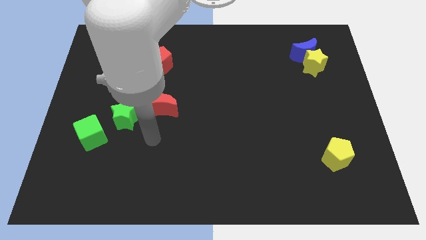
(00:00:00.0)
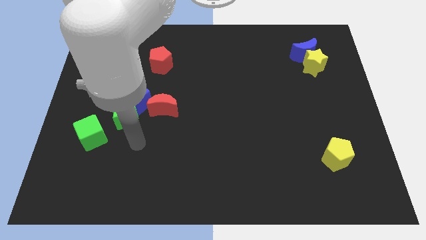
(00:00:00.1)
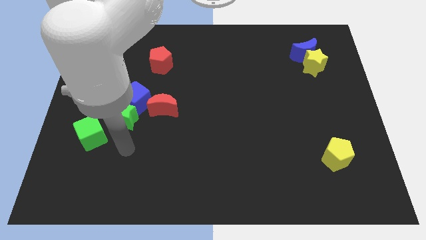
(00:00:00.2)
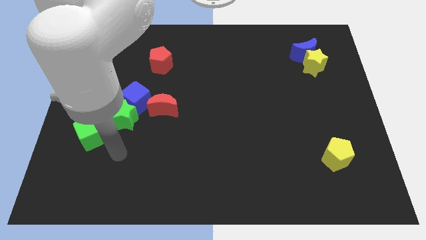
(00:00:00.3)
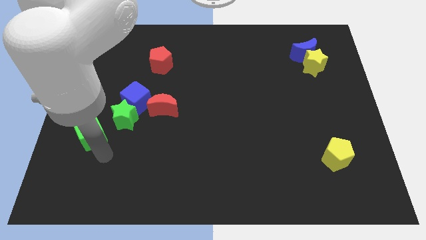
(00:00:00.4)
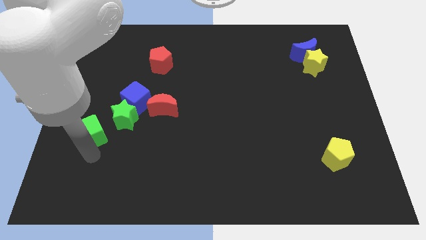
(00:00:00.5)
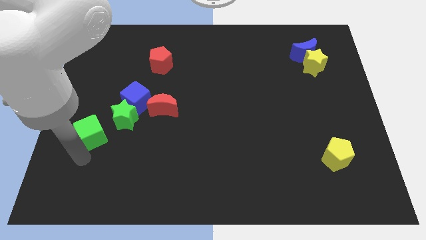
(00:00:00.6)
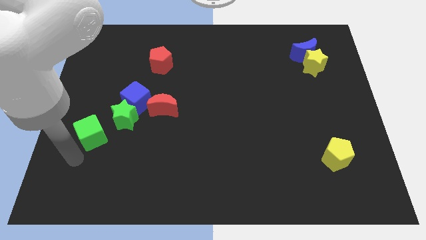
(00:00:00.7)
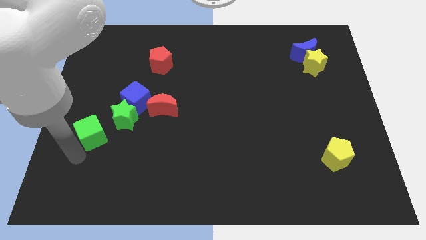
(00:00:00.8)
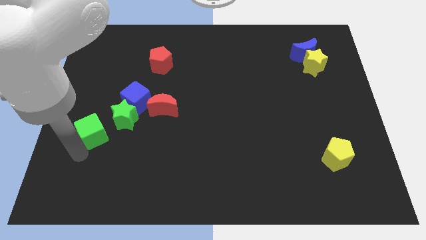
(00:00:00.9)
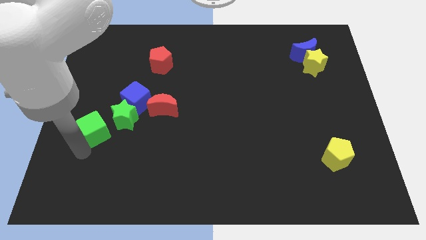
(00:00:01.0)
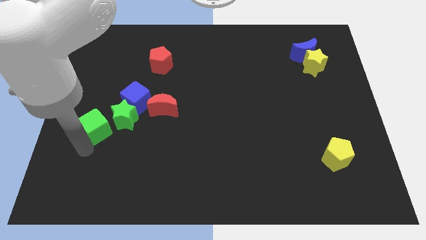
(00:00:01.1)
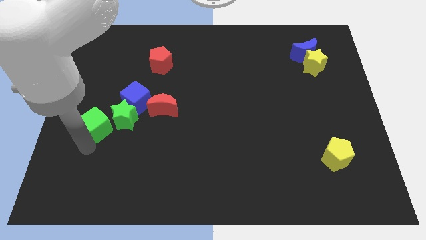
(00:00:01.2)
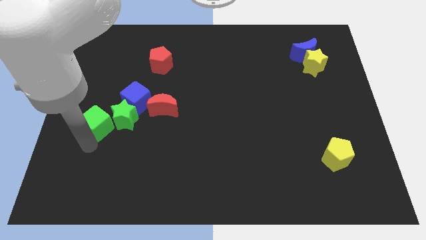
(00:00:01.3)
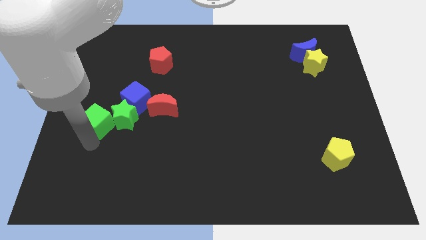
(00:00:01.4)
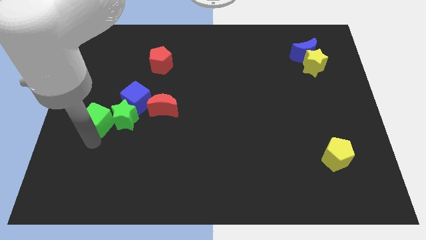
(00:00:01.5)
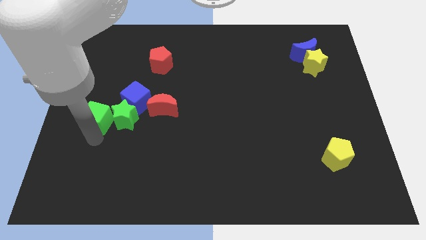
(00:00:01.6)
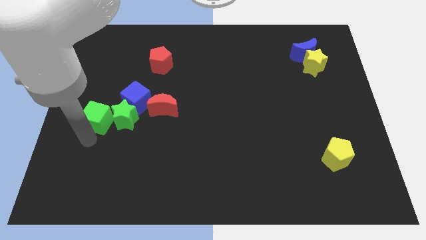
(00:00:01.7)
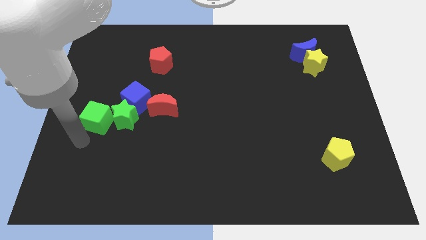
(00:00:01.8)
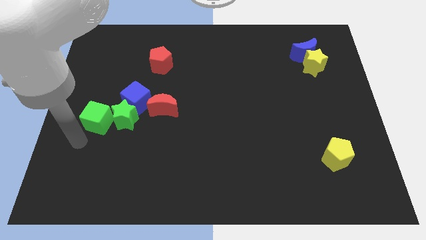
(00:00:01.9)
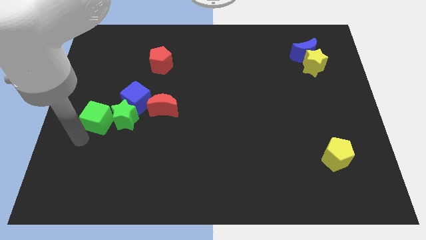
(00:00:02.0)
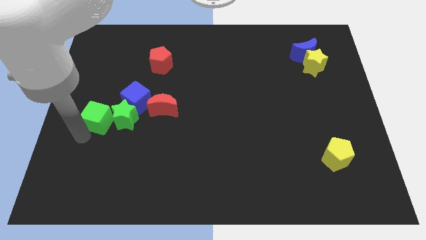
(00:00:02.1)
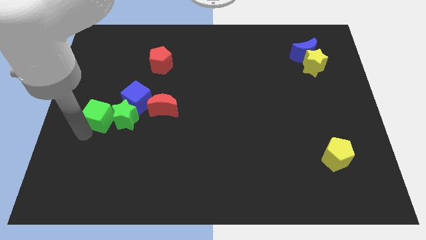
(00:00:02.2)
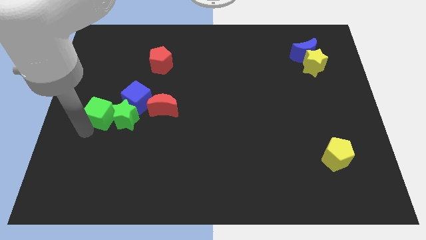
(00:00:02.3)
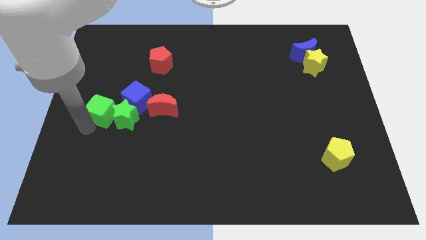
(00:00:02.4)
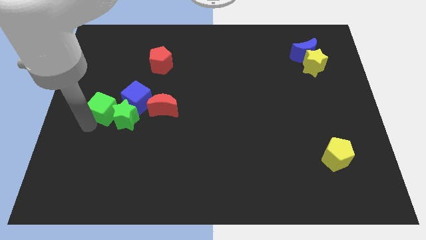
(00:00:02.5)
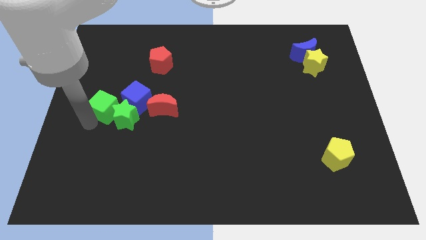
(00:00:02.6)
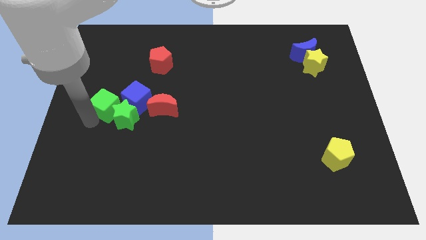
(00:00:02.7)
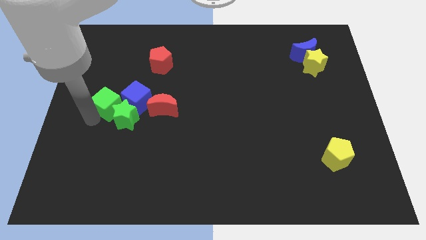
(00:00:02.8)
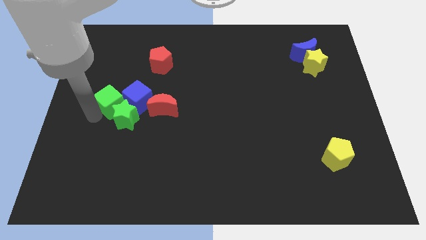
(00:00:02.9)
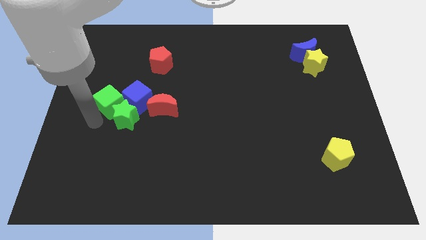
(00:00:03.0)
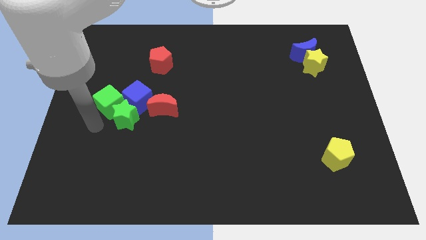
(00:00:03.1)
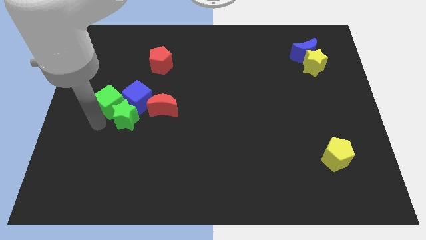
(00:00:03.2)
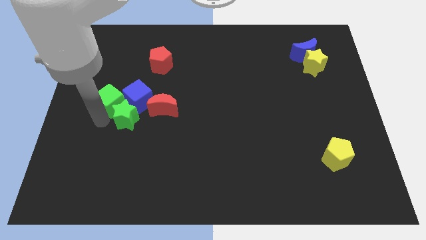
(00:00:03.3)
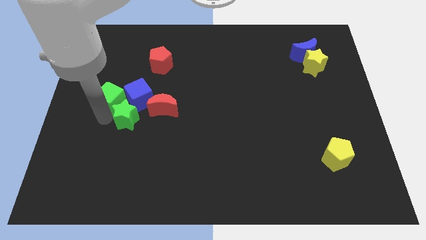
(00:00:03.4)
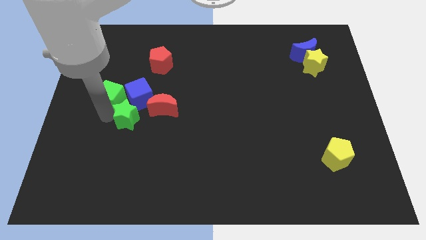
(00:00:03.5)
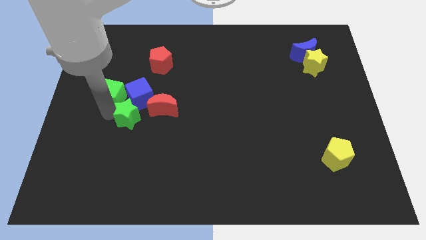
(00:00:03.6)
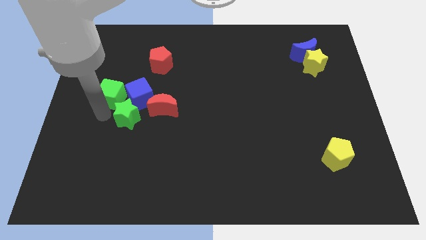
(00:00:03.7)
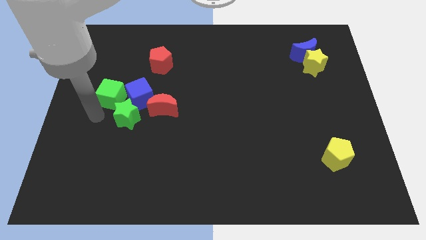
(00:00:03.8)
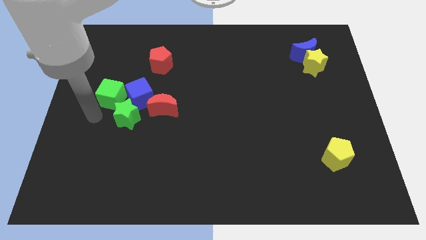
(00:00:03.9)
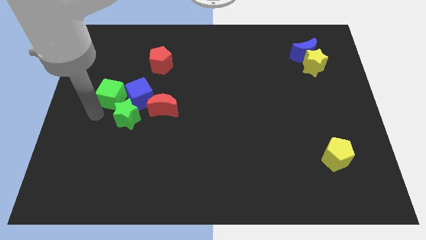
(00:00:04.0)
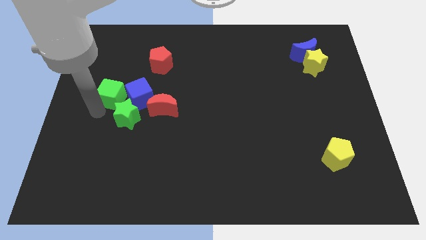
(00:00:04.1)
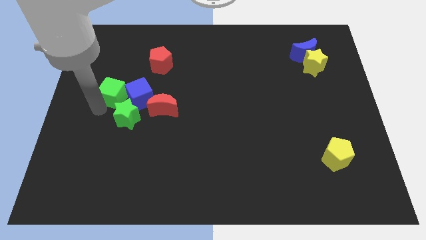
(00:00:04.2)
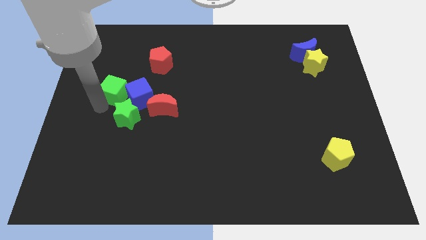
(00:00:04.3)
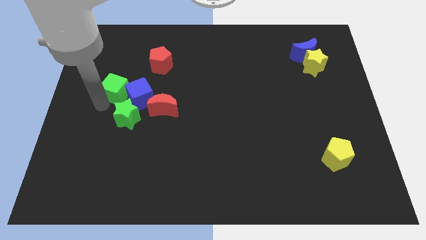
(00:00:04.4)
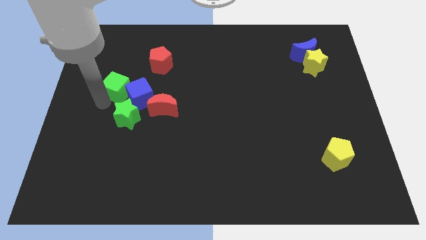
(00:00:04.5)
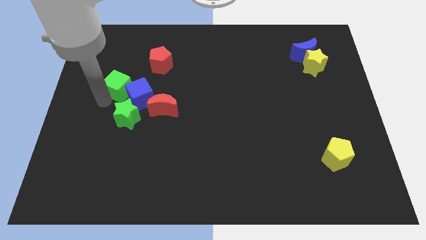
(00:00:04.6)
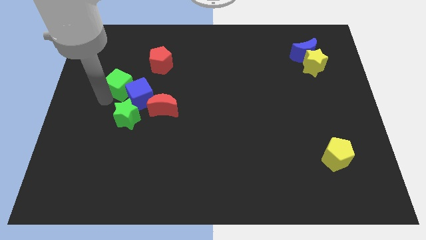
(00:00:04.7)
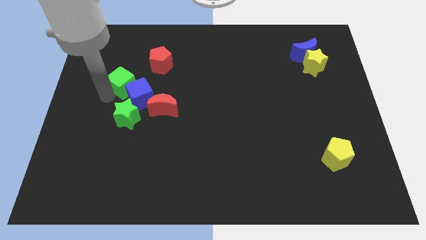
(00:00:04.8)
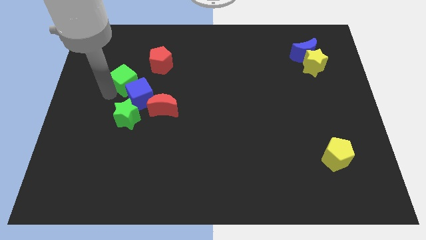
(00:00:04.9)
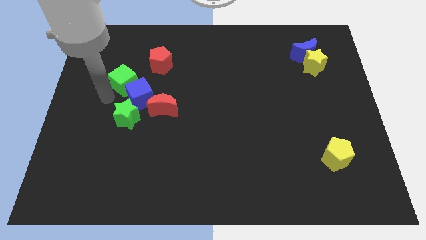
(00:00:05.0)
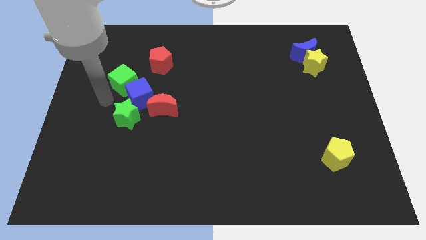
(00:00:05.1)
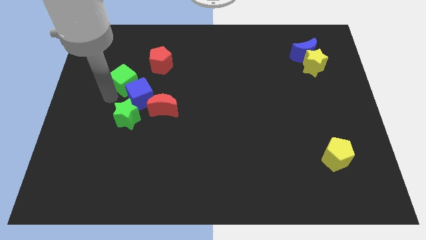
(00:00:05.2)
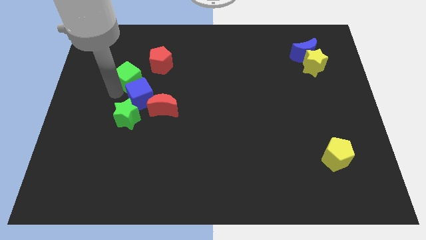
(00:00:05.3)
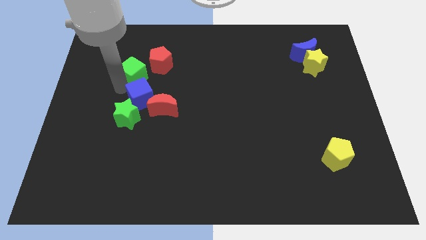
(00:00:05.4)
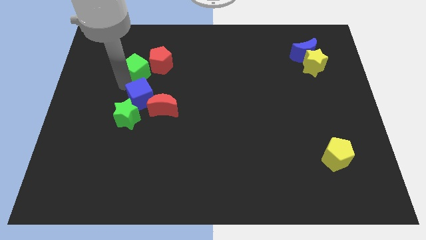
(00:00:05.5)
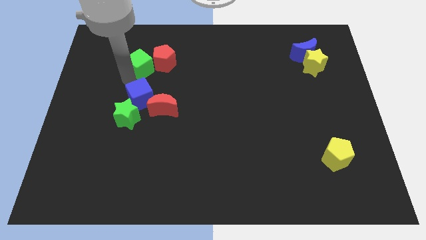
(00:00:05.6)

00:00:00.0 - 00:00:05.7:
move the green cube towards the red pentagon
